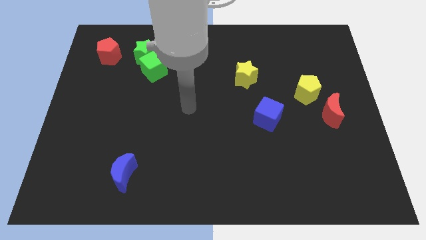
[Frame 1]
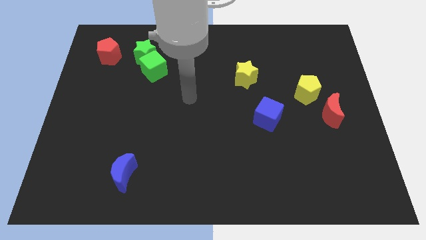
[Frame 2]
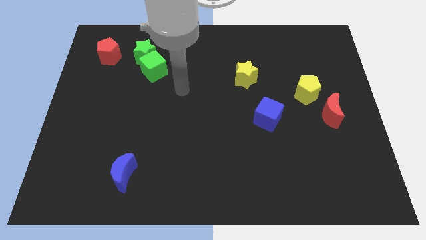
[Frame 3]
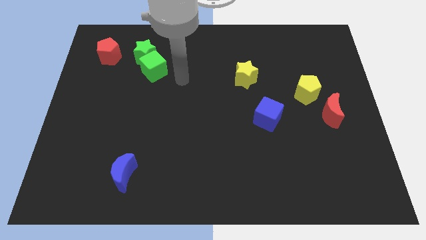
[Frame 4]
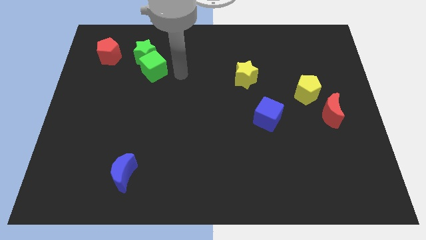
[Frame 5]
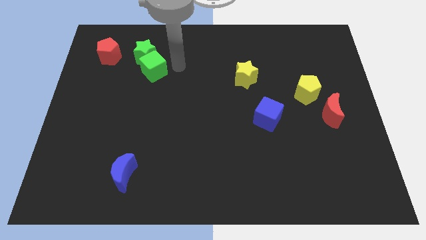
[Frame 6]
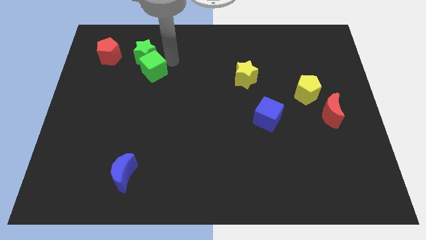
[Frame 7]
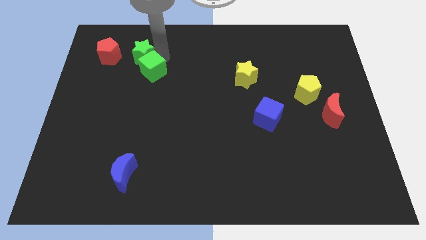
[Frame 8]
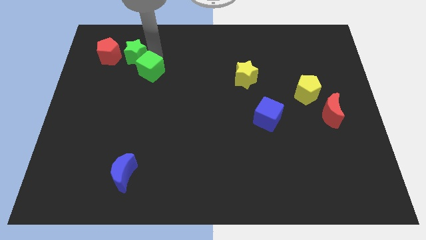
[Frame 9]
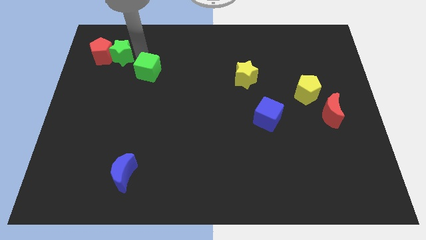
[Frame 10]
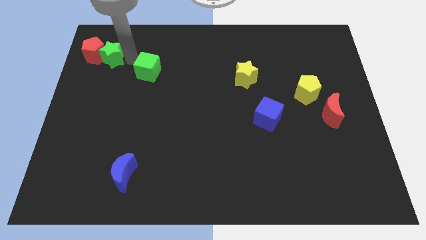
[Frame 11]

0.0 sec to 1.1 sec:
separate the green cube from the green star

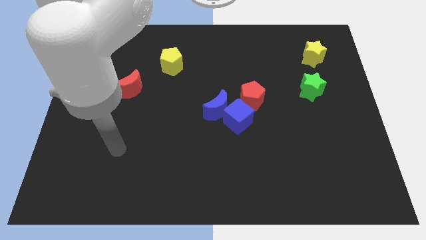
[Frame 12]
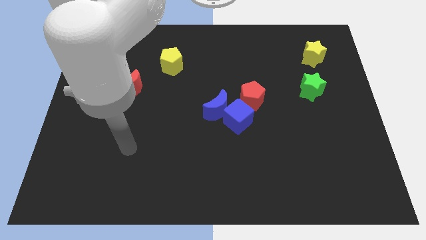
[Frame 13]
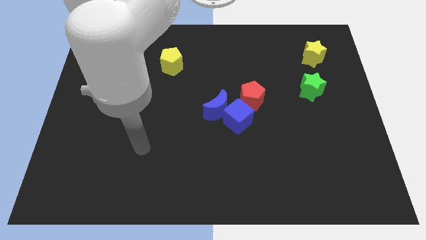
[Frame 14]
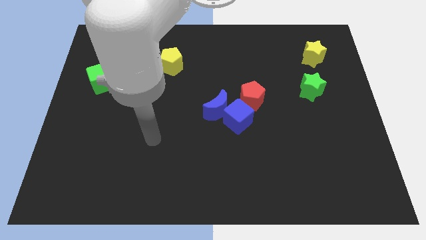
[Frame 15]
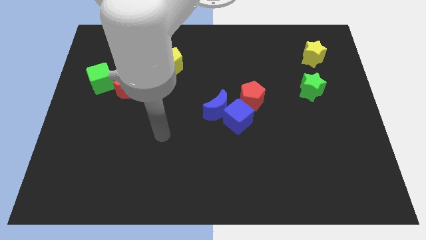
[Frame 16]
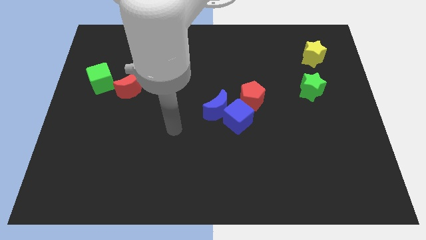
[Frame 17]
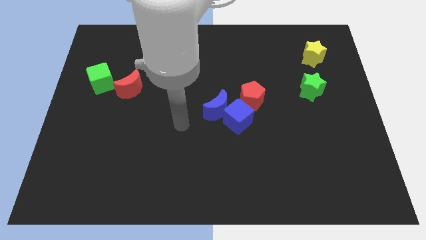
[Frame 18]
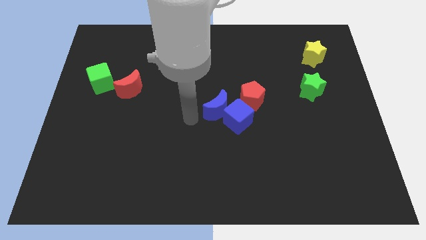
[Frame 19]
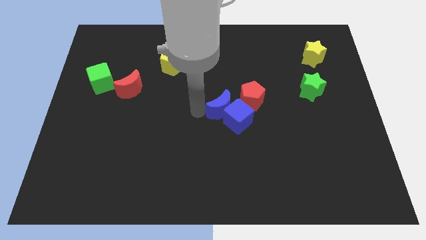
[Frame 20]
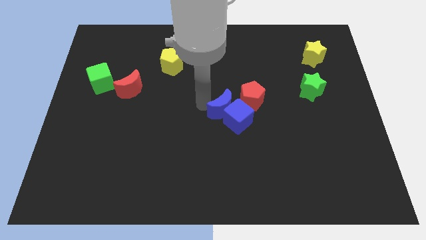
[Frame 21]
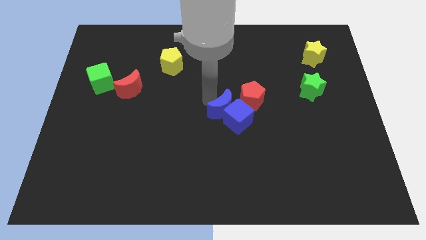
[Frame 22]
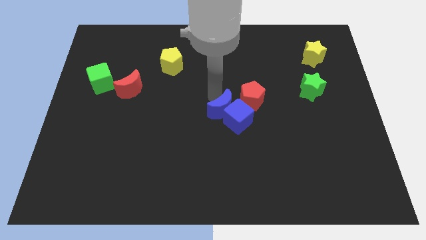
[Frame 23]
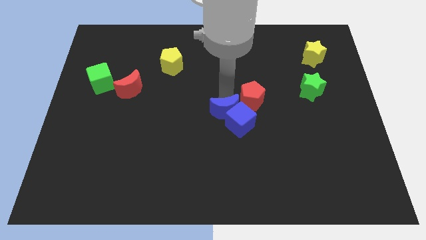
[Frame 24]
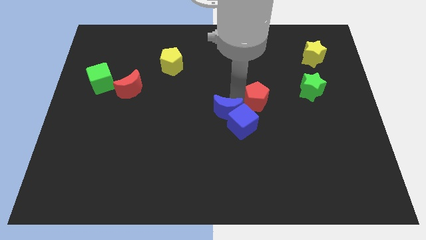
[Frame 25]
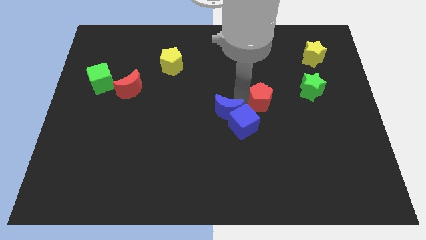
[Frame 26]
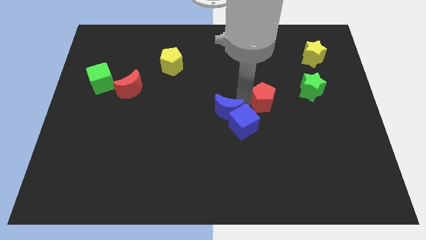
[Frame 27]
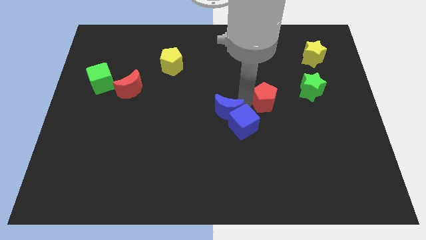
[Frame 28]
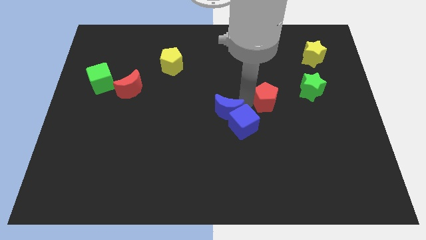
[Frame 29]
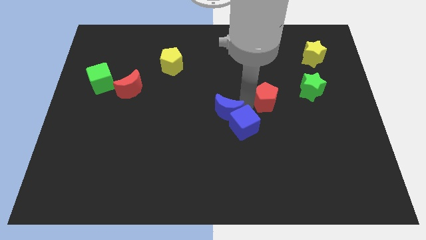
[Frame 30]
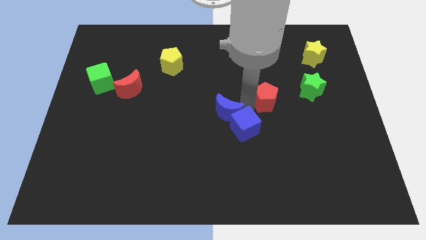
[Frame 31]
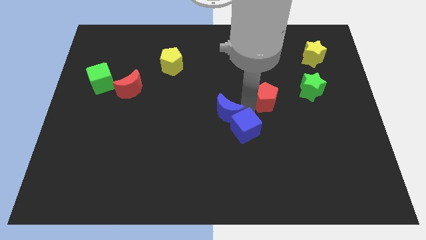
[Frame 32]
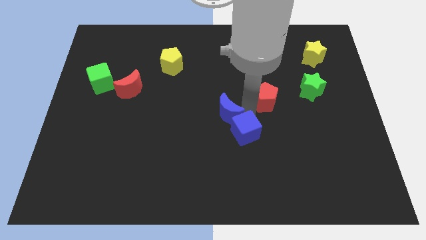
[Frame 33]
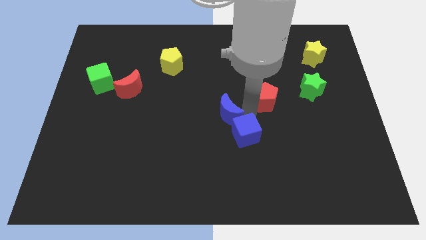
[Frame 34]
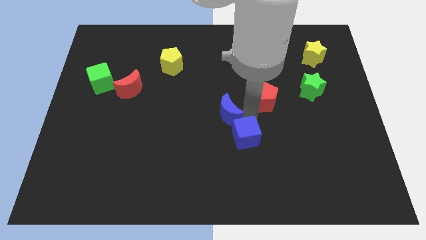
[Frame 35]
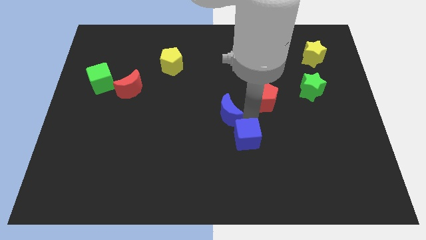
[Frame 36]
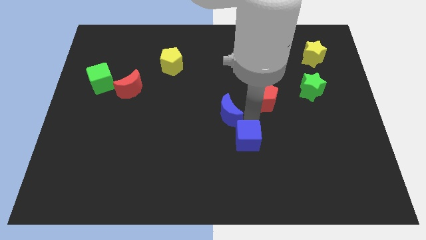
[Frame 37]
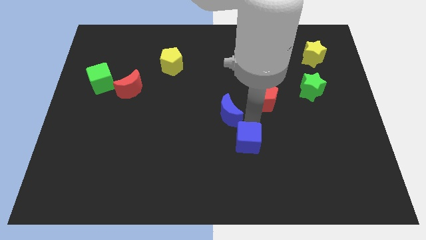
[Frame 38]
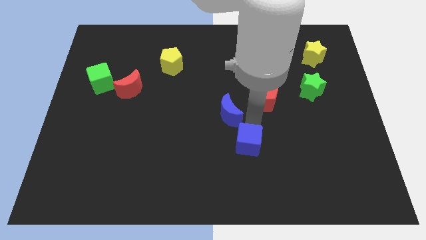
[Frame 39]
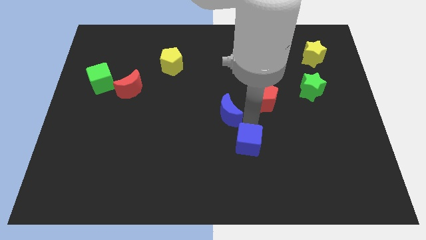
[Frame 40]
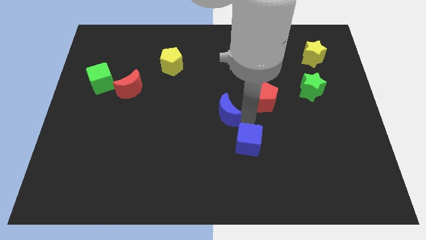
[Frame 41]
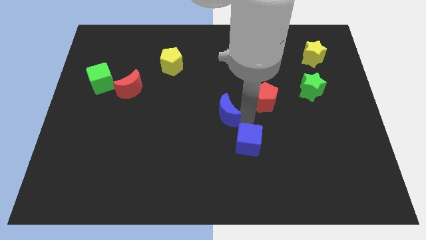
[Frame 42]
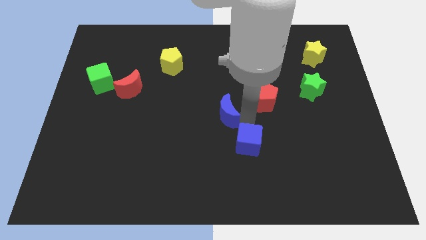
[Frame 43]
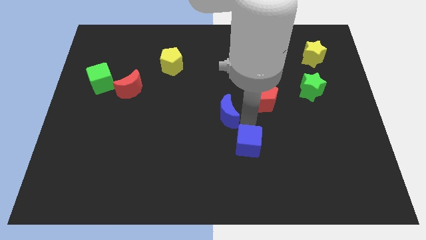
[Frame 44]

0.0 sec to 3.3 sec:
pull the blue cube apart from the blue moon and red pentagon

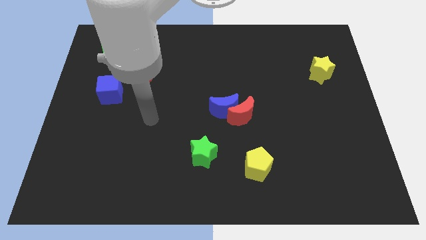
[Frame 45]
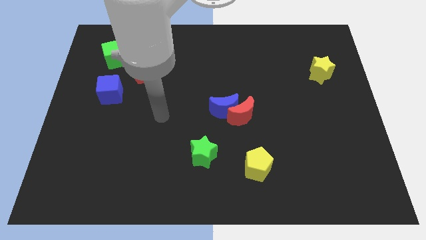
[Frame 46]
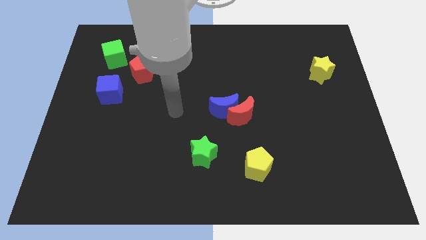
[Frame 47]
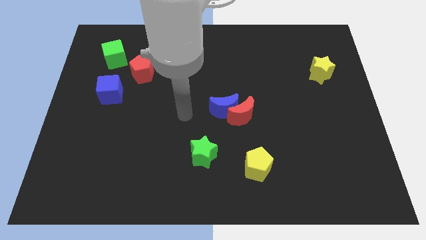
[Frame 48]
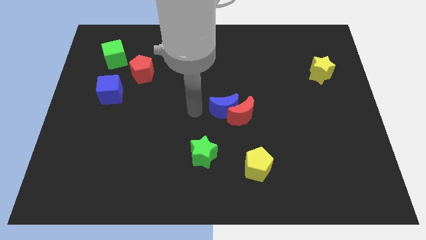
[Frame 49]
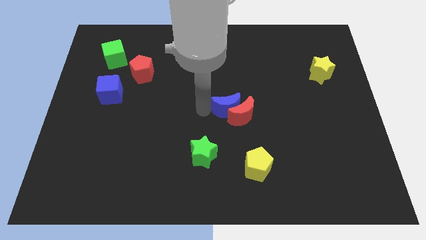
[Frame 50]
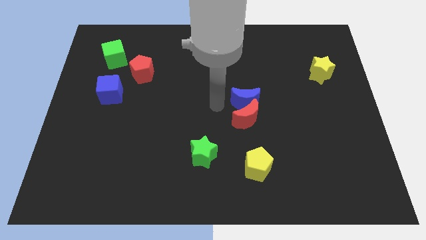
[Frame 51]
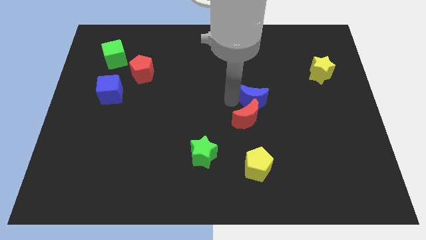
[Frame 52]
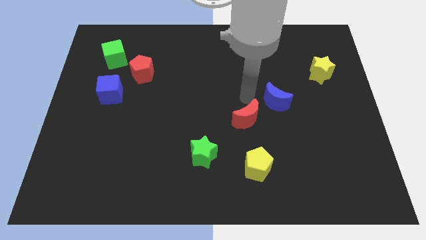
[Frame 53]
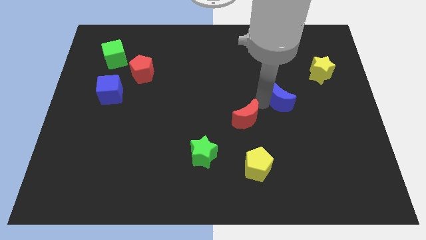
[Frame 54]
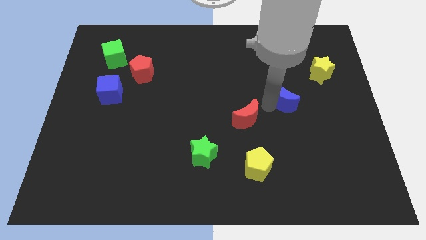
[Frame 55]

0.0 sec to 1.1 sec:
move the red moon away from the blue moon

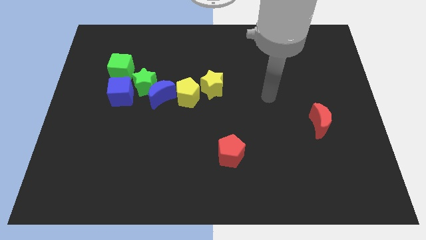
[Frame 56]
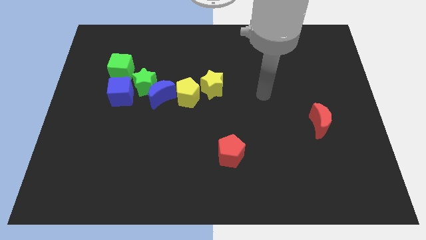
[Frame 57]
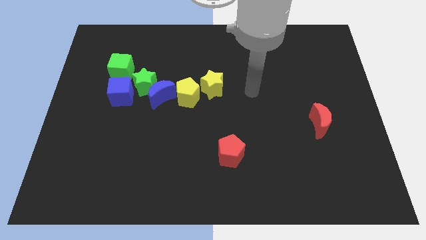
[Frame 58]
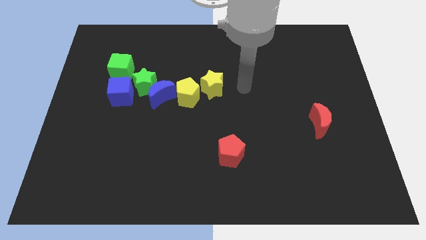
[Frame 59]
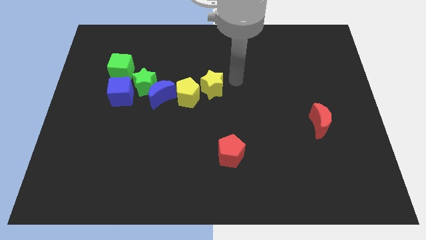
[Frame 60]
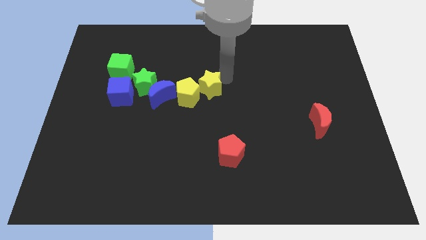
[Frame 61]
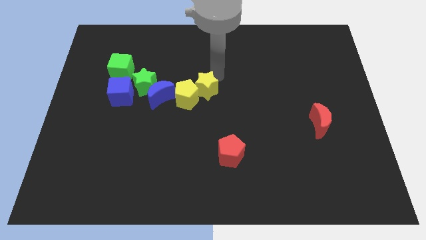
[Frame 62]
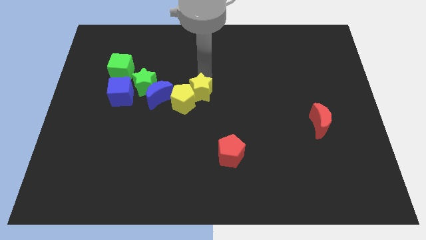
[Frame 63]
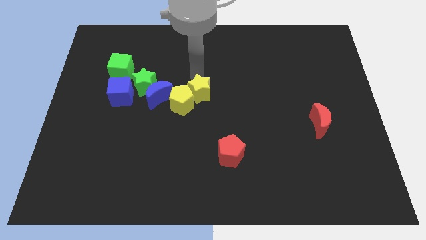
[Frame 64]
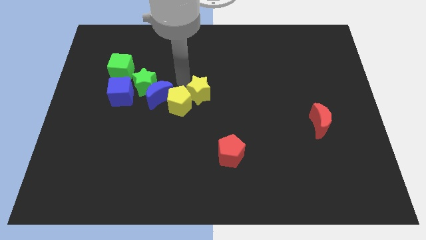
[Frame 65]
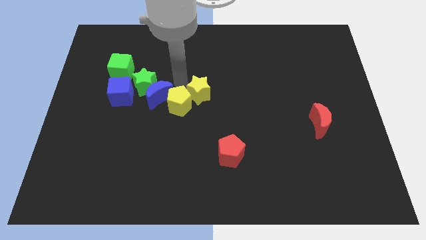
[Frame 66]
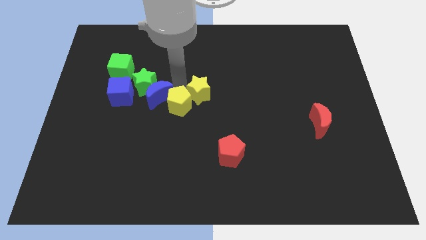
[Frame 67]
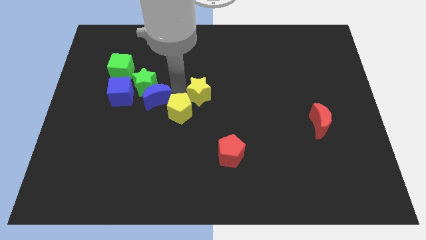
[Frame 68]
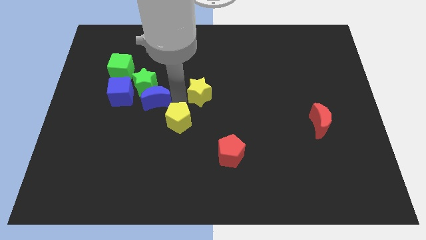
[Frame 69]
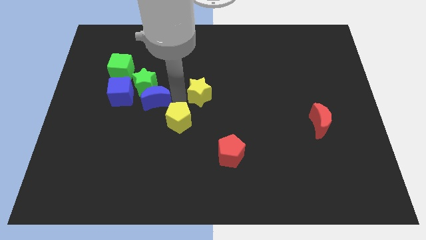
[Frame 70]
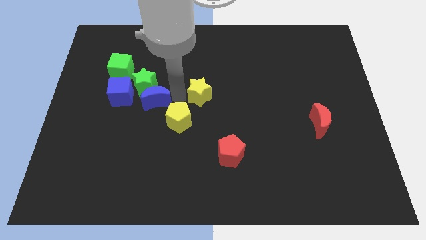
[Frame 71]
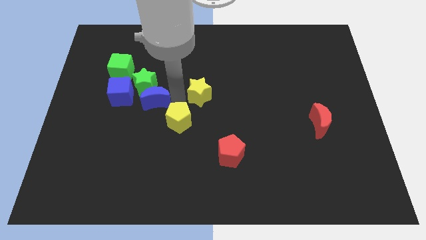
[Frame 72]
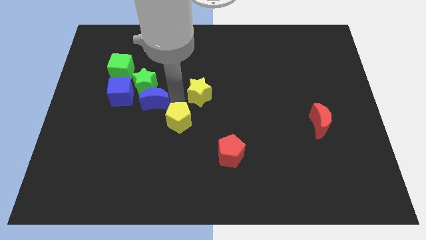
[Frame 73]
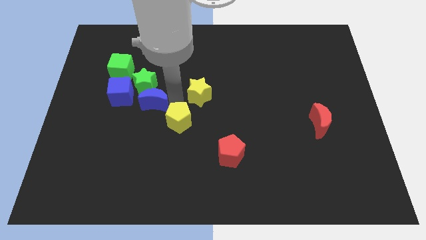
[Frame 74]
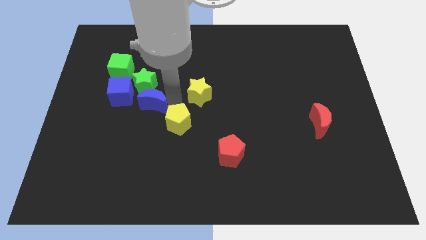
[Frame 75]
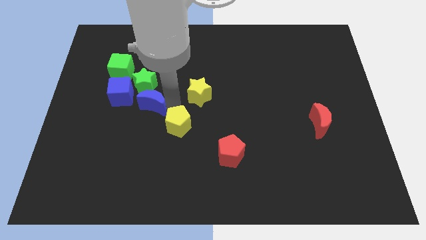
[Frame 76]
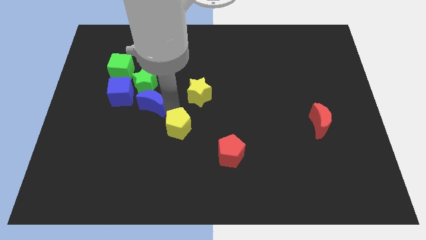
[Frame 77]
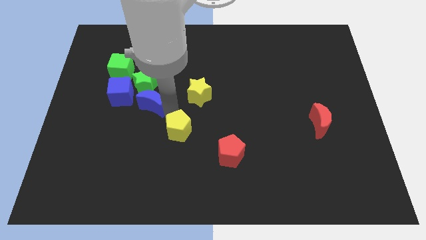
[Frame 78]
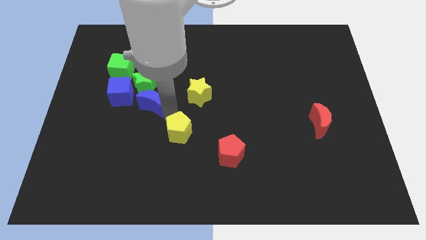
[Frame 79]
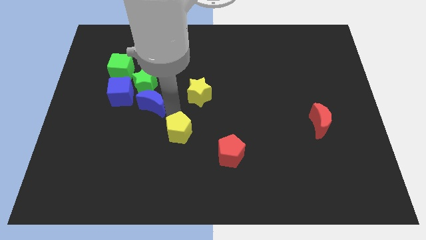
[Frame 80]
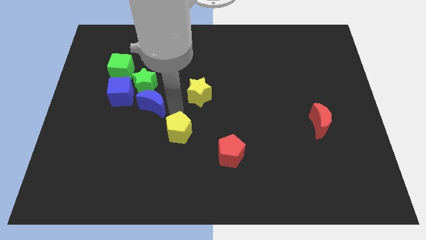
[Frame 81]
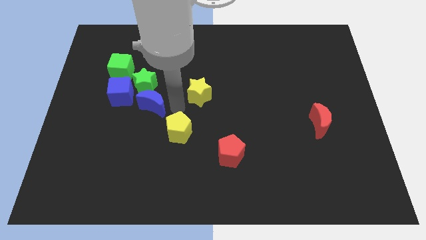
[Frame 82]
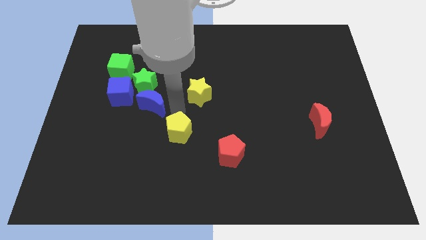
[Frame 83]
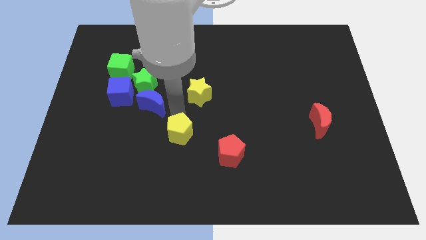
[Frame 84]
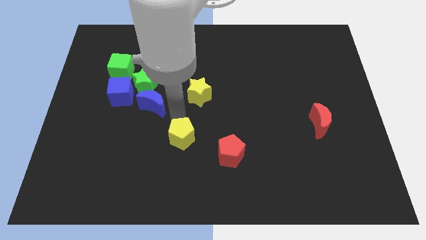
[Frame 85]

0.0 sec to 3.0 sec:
pull the yellow pentagon apart from the blue moon and yellow star

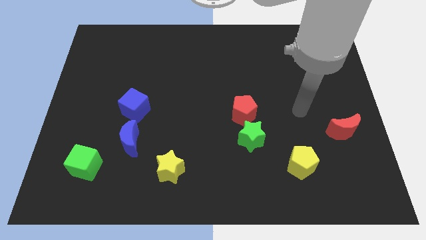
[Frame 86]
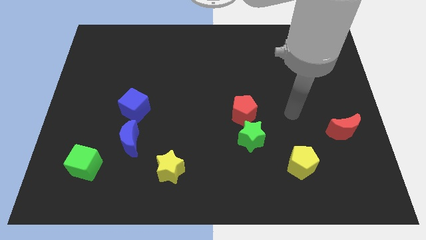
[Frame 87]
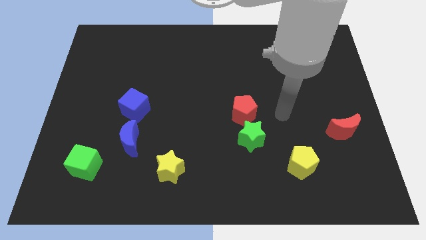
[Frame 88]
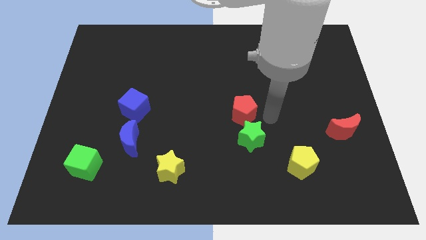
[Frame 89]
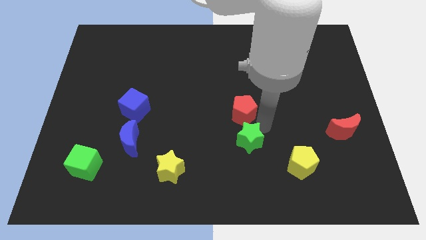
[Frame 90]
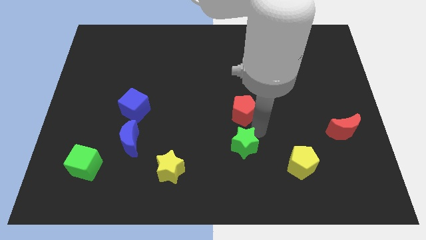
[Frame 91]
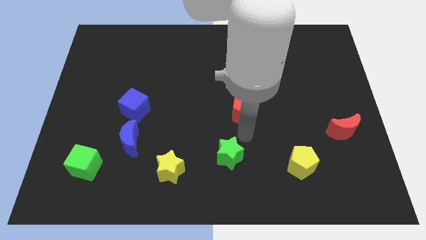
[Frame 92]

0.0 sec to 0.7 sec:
separate the red pentagon from the green star

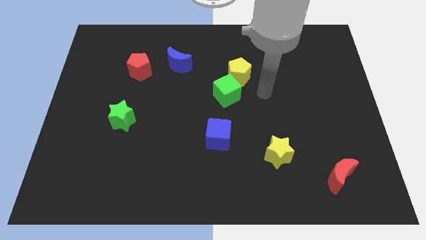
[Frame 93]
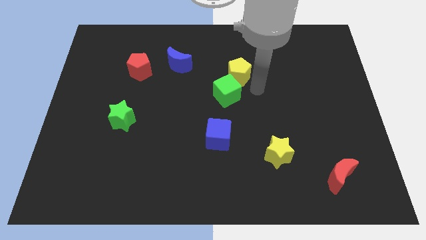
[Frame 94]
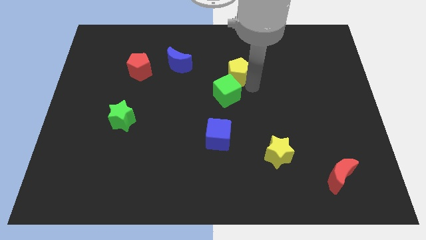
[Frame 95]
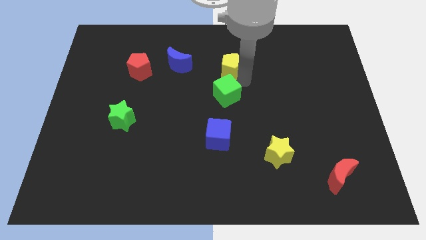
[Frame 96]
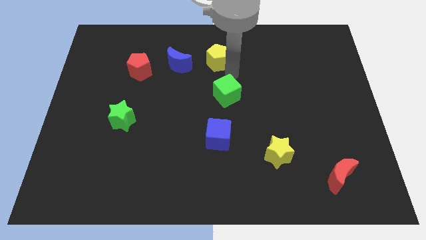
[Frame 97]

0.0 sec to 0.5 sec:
pull the green cube apart from the yellow pentagon
